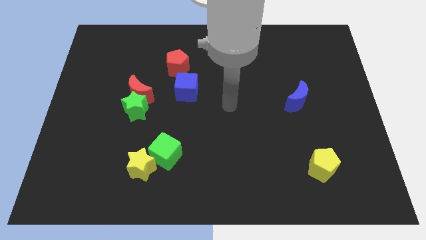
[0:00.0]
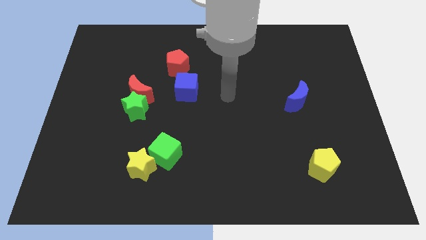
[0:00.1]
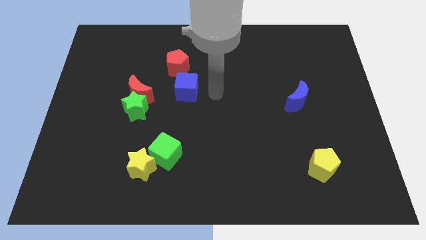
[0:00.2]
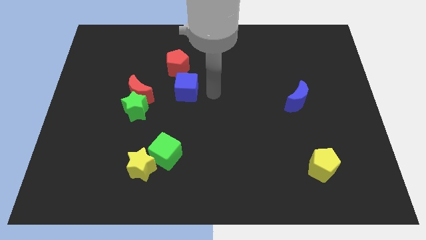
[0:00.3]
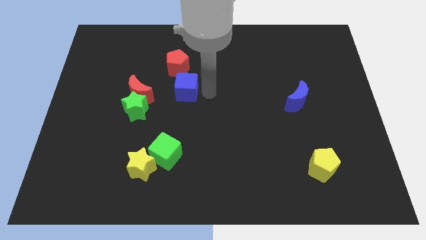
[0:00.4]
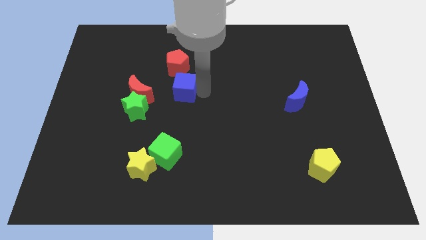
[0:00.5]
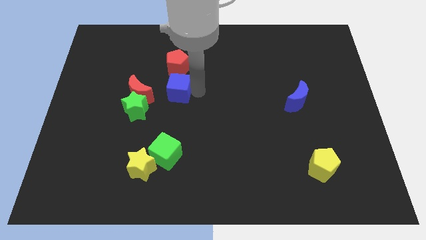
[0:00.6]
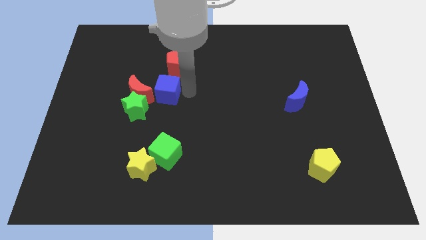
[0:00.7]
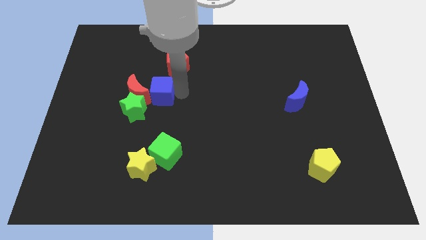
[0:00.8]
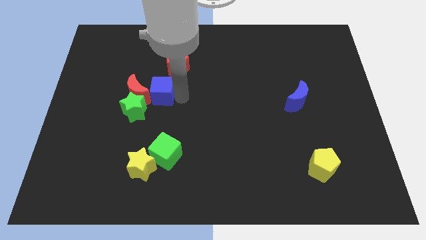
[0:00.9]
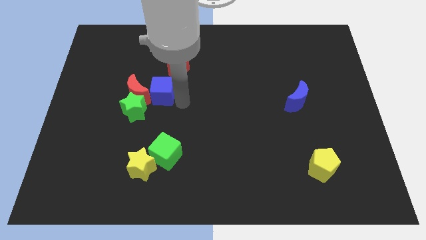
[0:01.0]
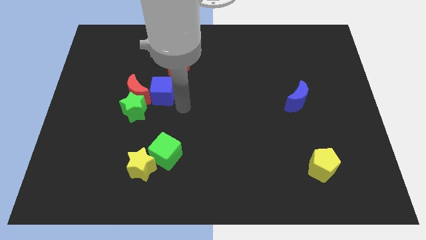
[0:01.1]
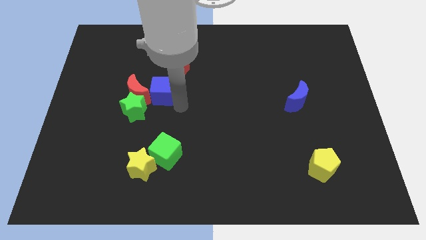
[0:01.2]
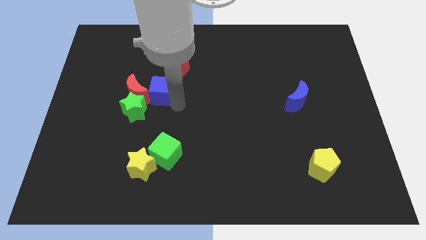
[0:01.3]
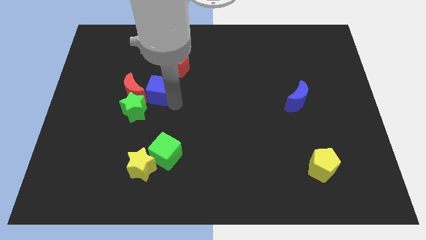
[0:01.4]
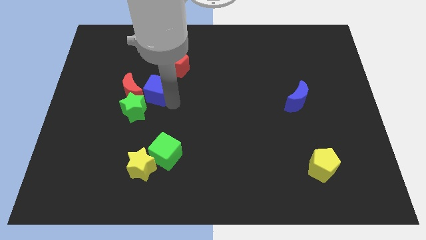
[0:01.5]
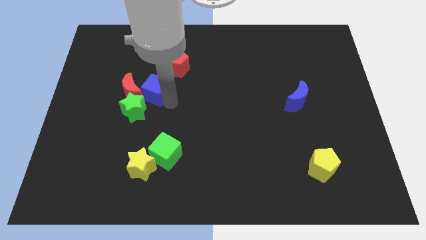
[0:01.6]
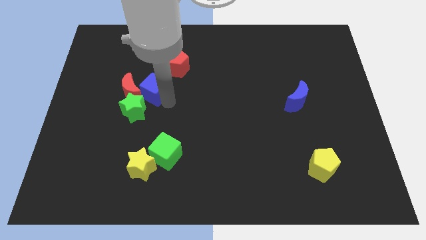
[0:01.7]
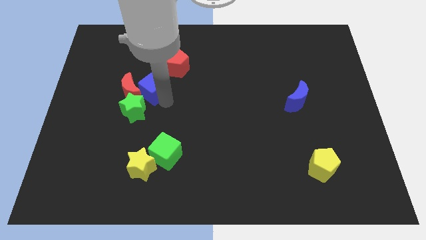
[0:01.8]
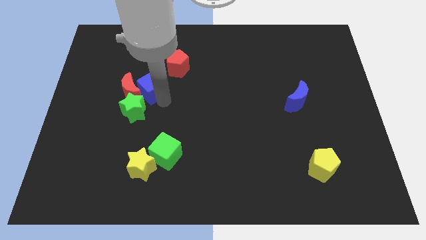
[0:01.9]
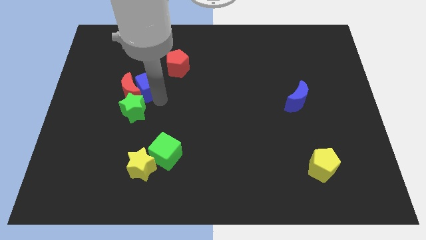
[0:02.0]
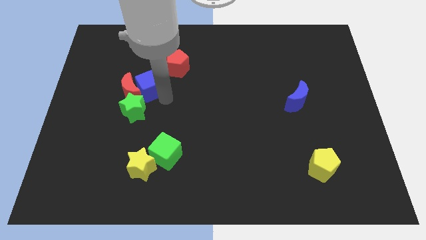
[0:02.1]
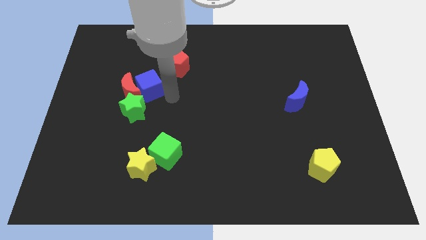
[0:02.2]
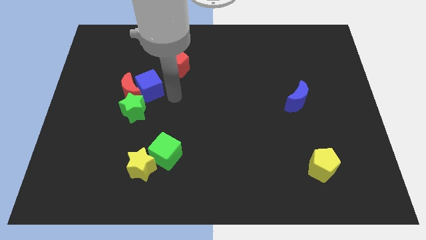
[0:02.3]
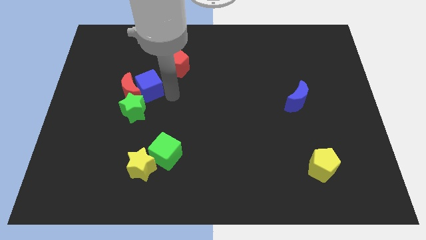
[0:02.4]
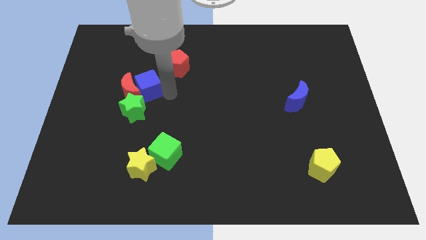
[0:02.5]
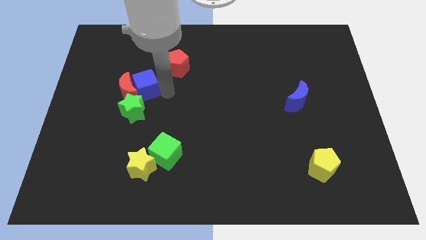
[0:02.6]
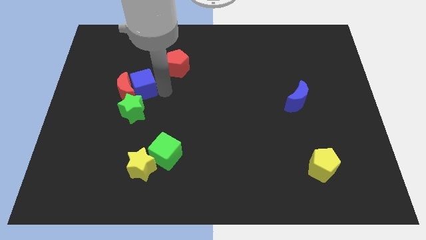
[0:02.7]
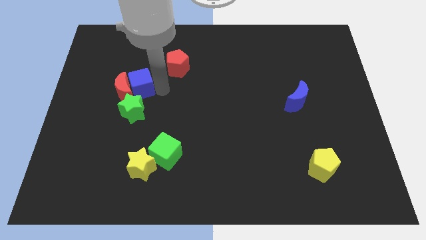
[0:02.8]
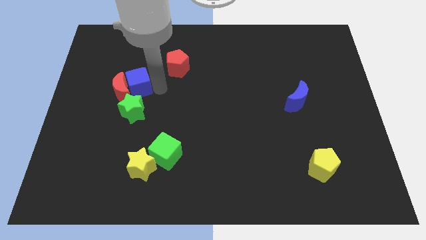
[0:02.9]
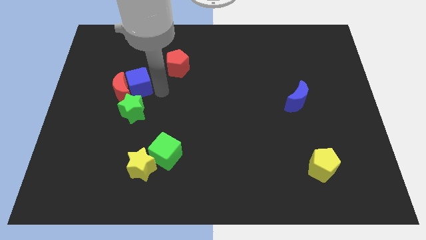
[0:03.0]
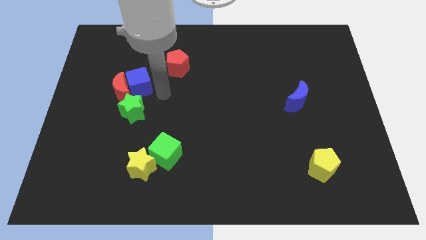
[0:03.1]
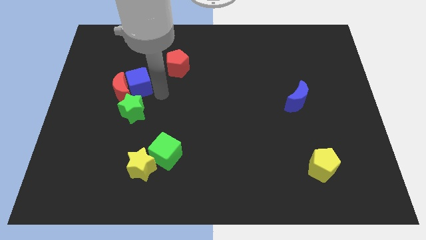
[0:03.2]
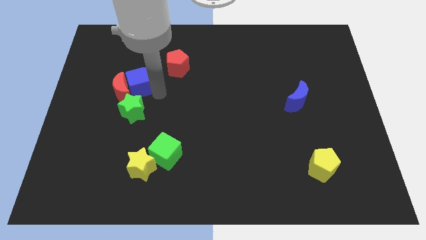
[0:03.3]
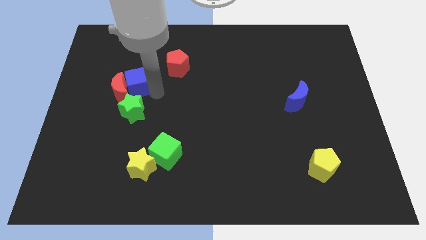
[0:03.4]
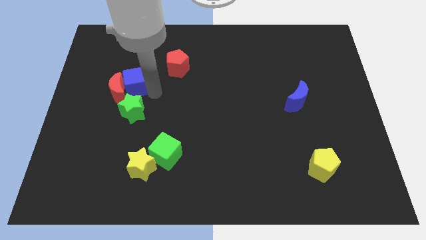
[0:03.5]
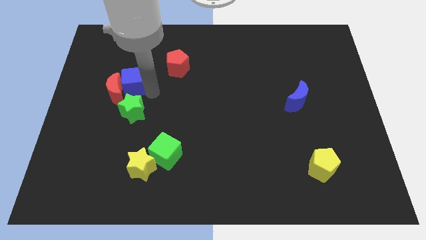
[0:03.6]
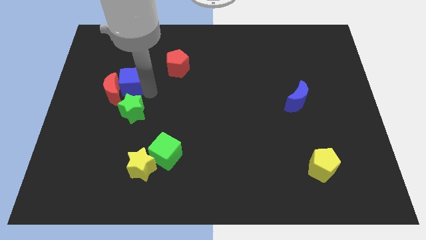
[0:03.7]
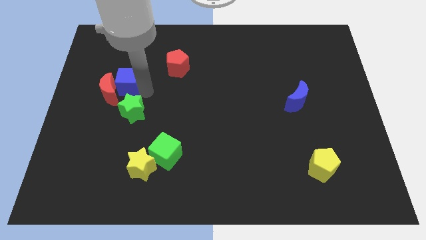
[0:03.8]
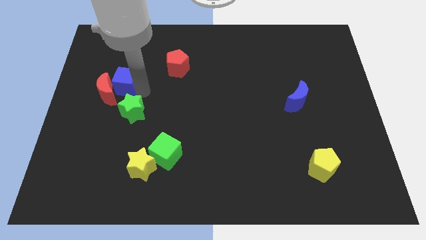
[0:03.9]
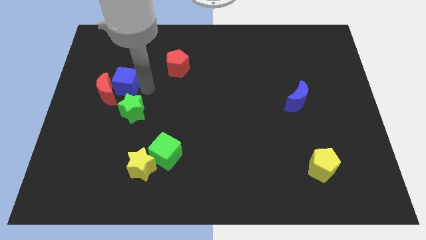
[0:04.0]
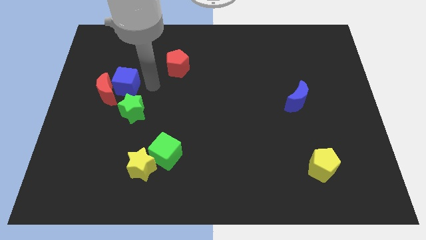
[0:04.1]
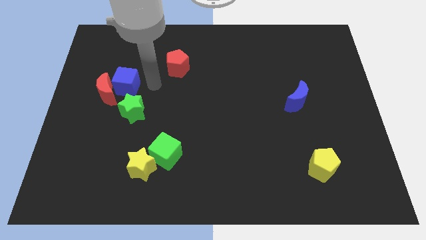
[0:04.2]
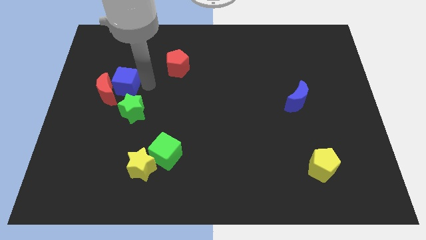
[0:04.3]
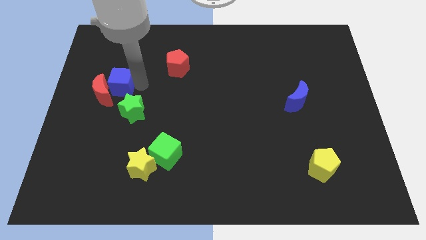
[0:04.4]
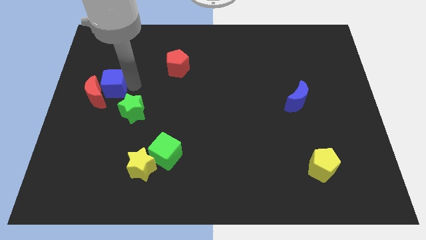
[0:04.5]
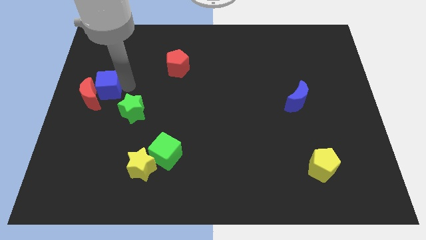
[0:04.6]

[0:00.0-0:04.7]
push the blue cube to the left side

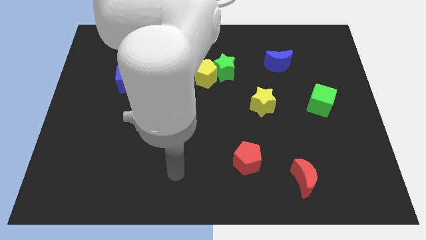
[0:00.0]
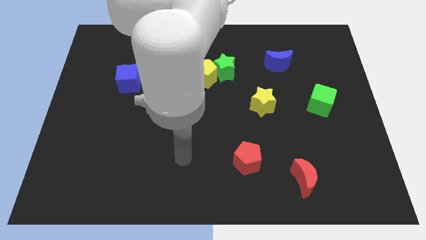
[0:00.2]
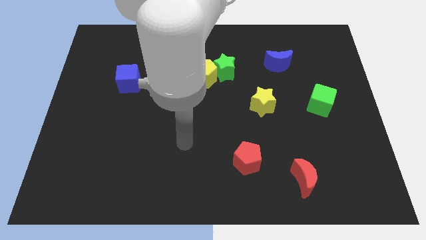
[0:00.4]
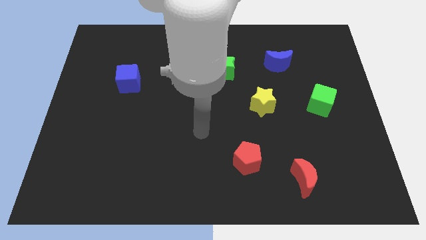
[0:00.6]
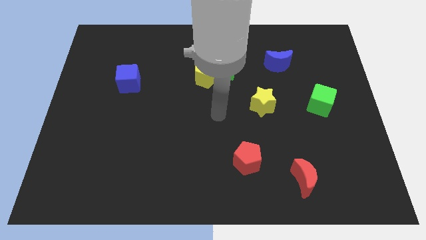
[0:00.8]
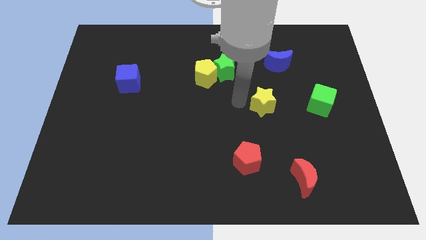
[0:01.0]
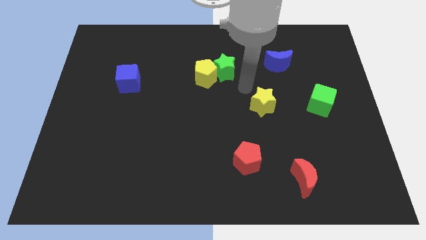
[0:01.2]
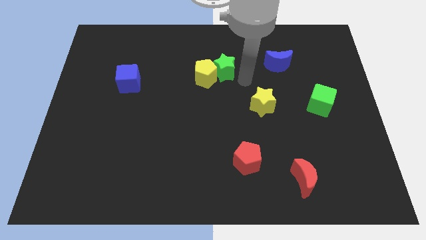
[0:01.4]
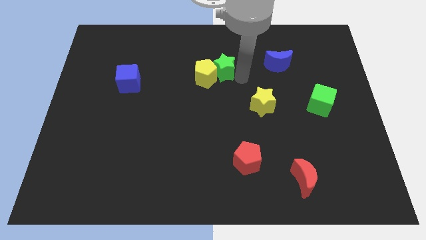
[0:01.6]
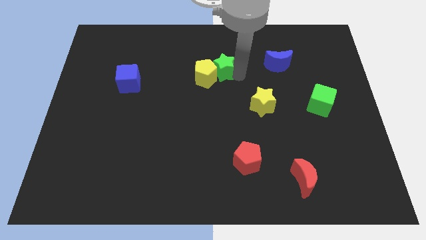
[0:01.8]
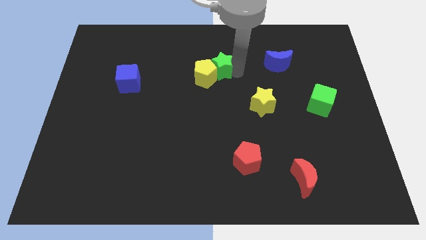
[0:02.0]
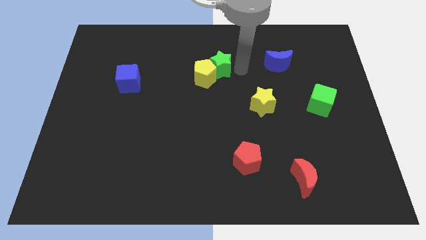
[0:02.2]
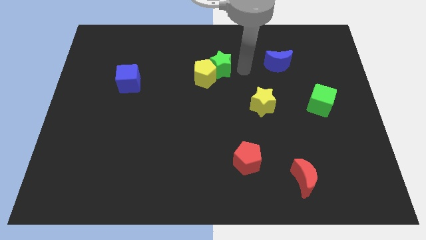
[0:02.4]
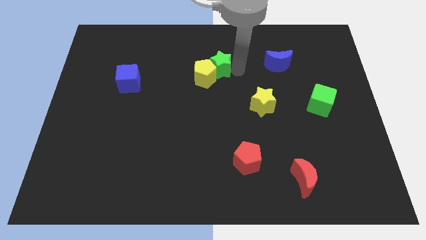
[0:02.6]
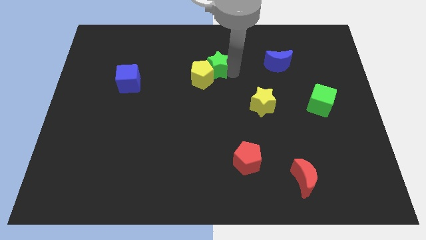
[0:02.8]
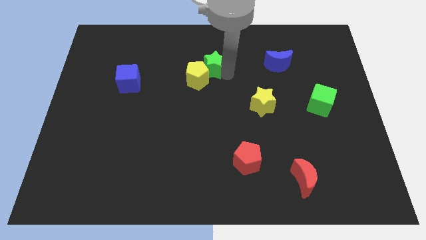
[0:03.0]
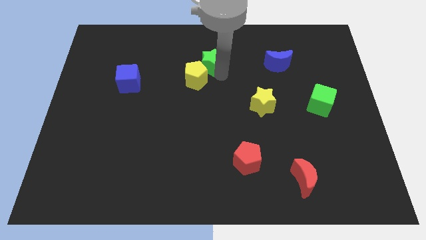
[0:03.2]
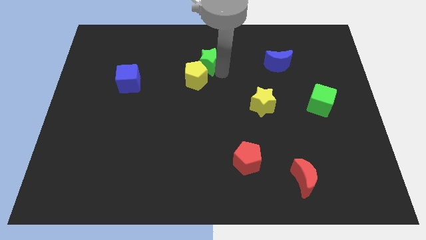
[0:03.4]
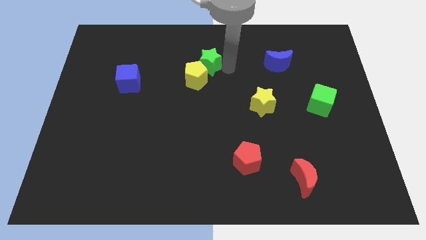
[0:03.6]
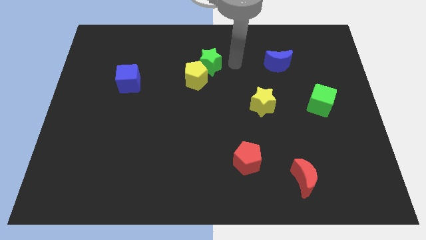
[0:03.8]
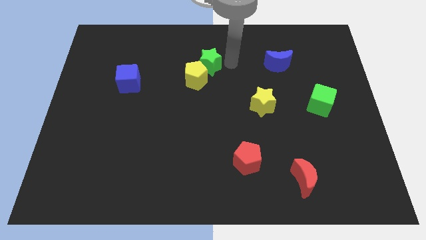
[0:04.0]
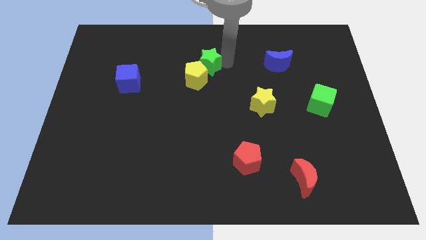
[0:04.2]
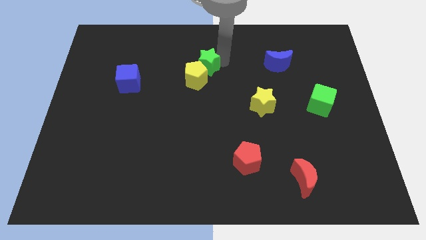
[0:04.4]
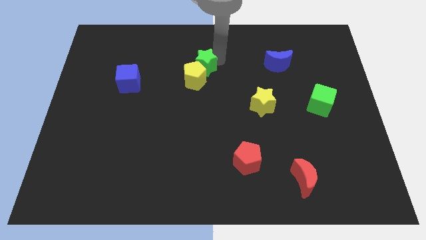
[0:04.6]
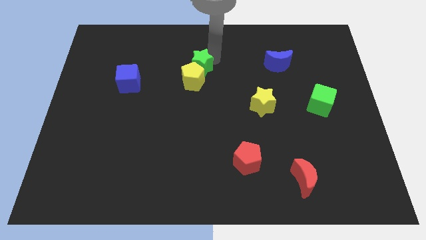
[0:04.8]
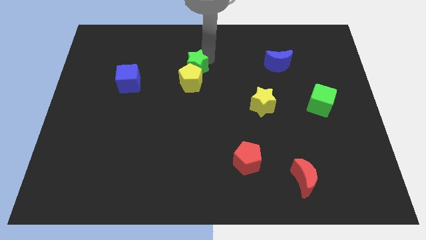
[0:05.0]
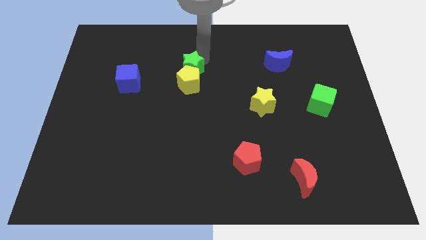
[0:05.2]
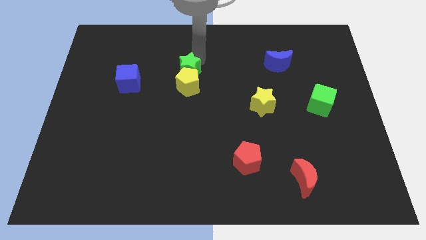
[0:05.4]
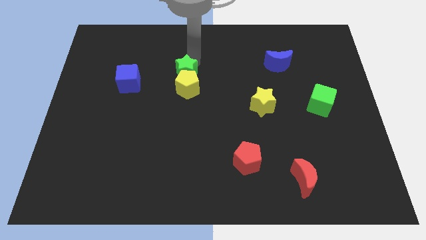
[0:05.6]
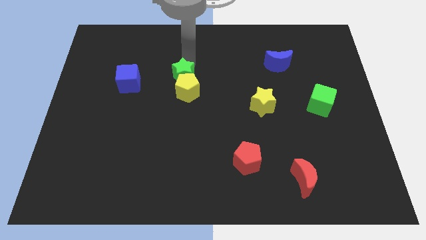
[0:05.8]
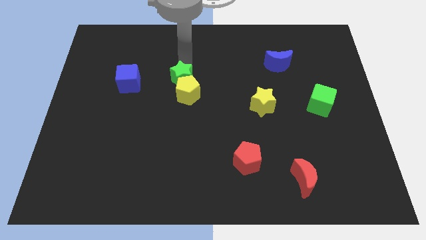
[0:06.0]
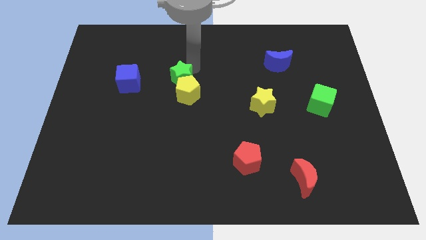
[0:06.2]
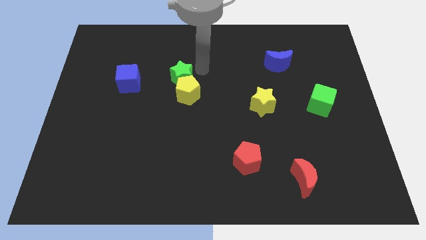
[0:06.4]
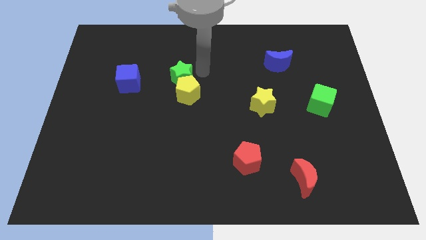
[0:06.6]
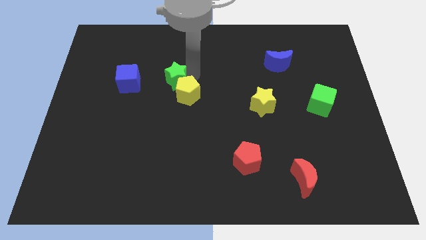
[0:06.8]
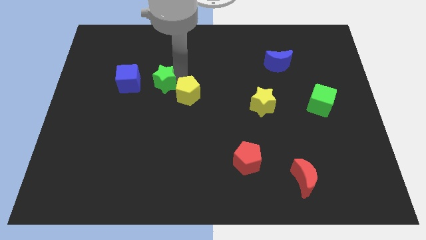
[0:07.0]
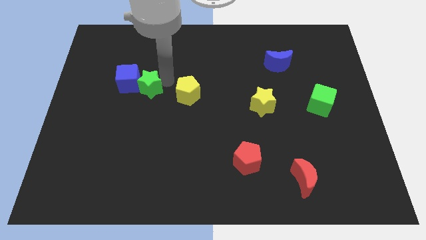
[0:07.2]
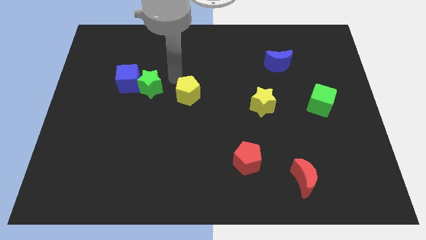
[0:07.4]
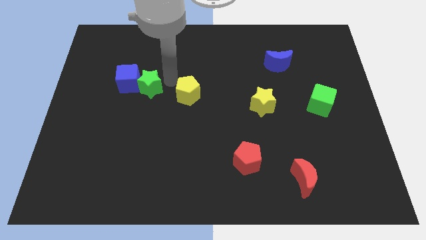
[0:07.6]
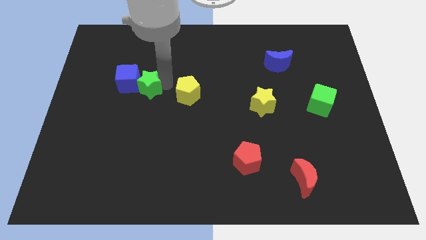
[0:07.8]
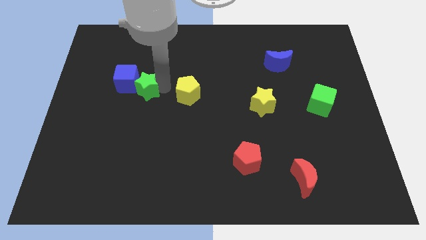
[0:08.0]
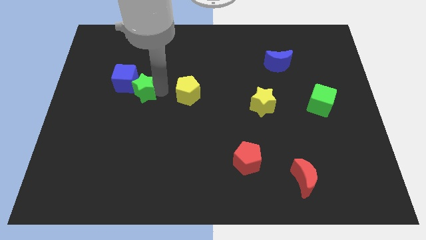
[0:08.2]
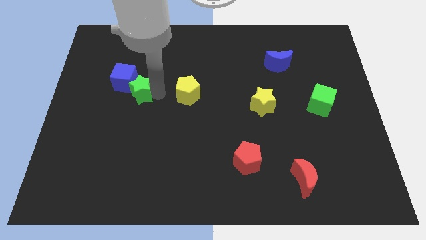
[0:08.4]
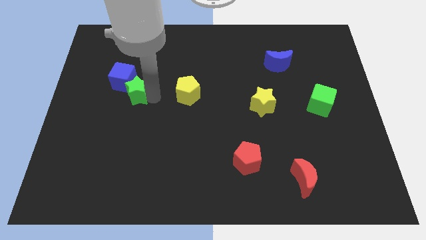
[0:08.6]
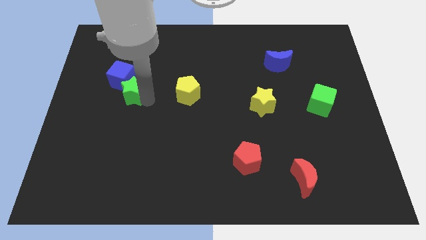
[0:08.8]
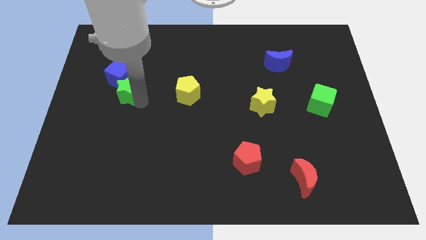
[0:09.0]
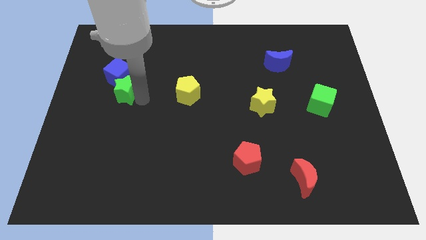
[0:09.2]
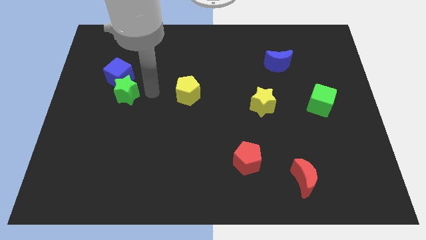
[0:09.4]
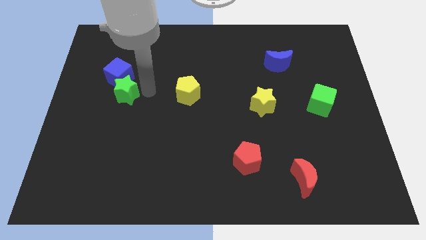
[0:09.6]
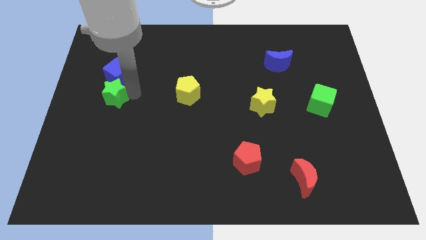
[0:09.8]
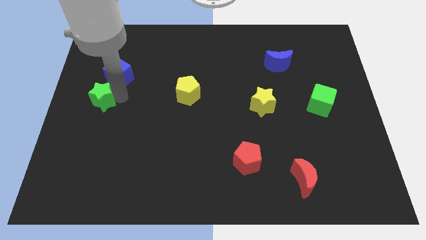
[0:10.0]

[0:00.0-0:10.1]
put the green star to the left side
